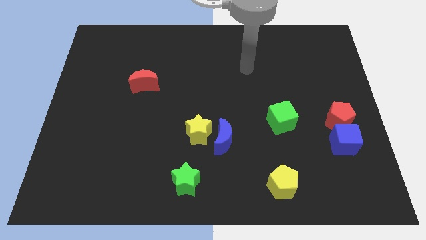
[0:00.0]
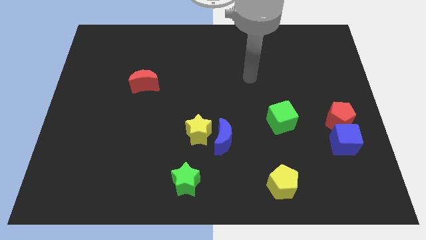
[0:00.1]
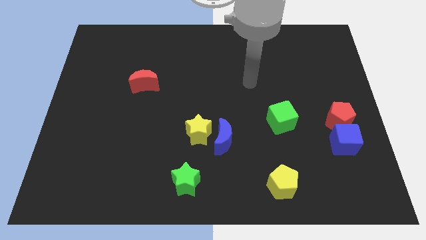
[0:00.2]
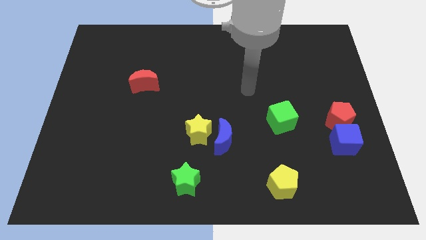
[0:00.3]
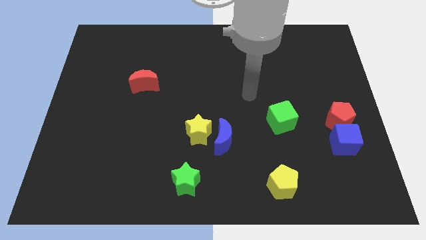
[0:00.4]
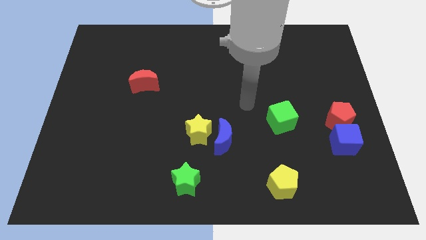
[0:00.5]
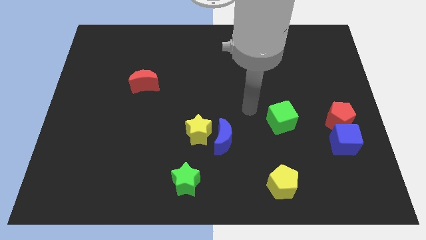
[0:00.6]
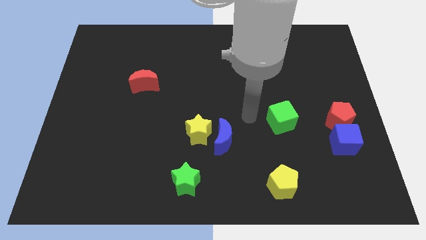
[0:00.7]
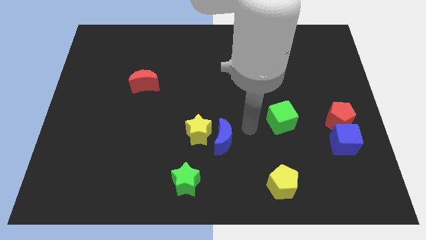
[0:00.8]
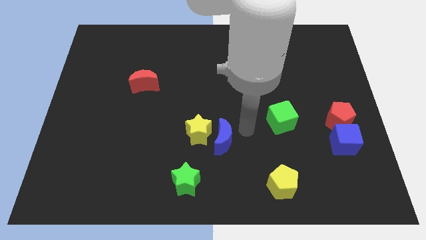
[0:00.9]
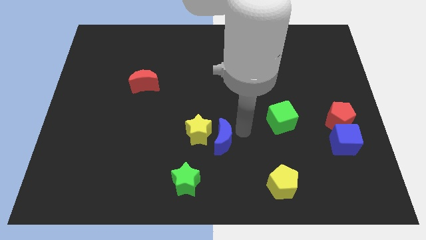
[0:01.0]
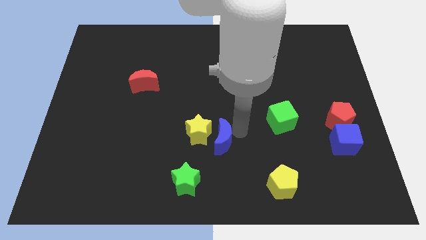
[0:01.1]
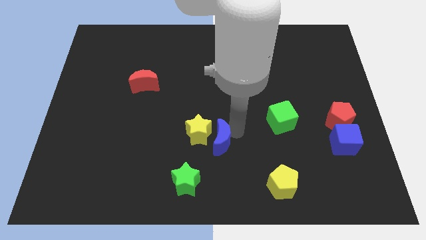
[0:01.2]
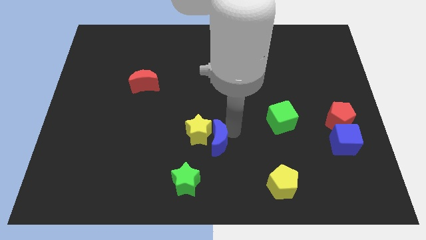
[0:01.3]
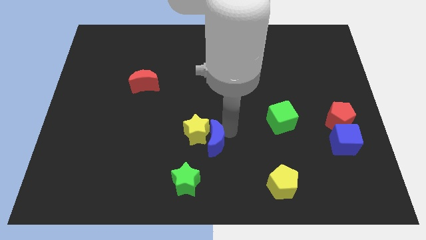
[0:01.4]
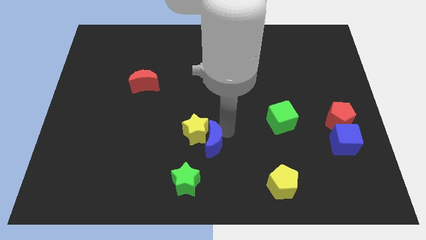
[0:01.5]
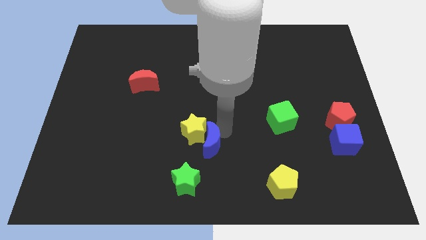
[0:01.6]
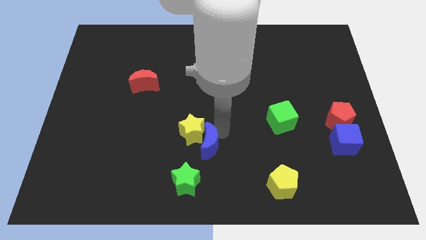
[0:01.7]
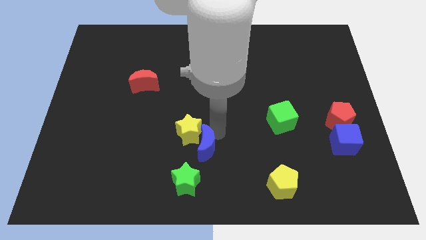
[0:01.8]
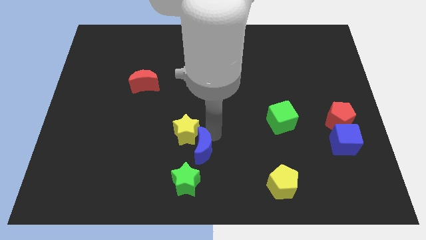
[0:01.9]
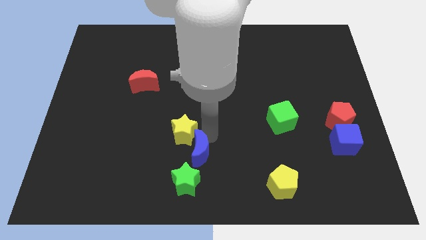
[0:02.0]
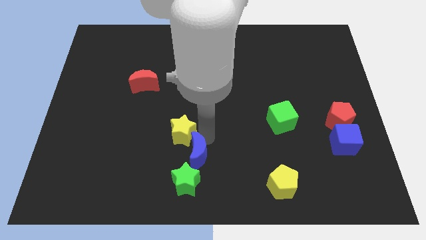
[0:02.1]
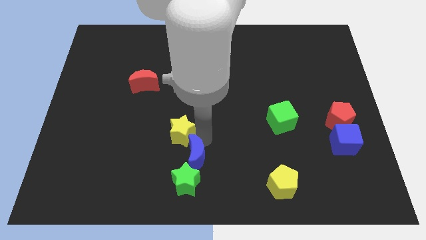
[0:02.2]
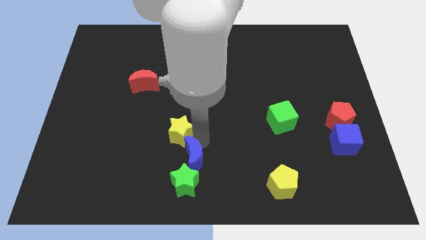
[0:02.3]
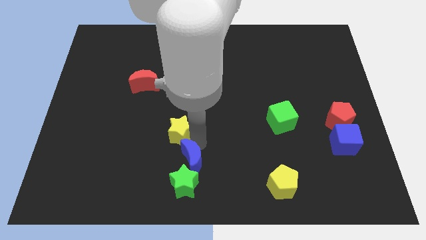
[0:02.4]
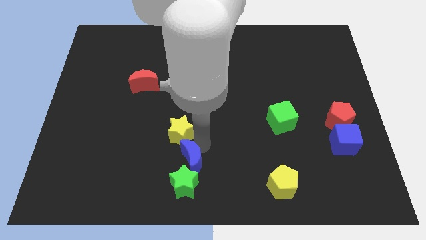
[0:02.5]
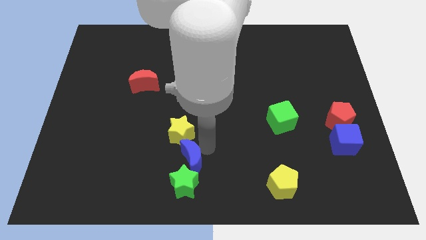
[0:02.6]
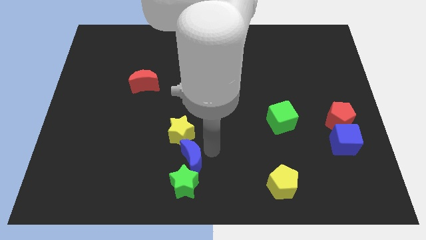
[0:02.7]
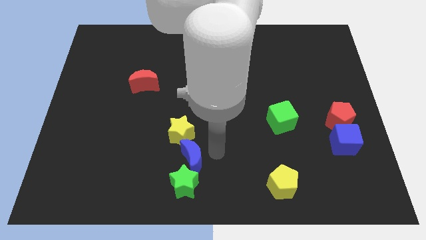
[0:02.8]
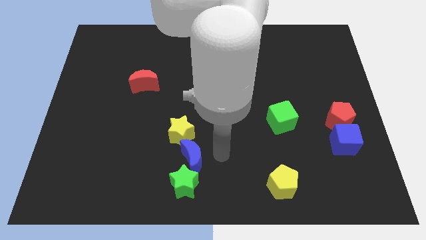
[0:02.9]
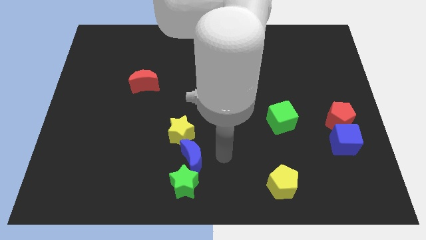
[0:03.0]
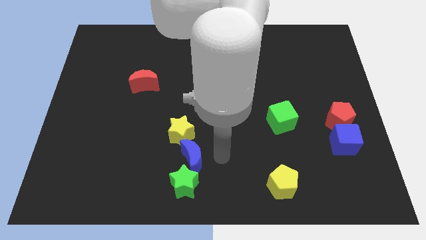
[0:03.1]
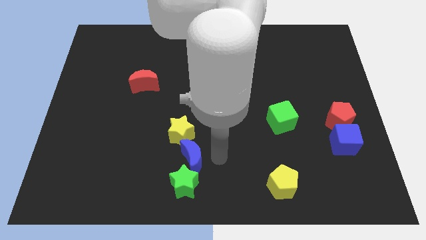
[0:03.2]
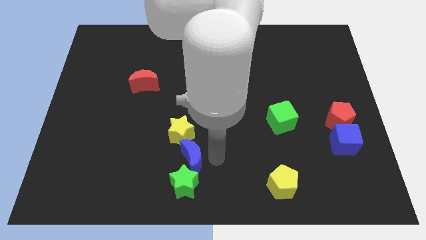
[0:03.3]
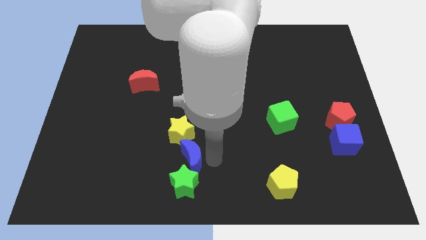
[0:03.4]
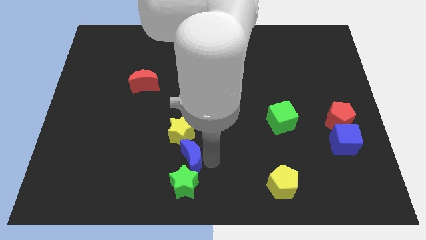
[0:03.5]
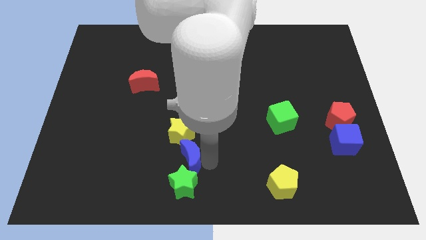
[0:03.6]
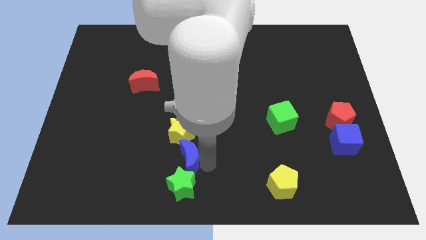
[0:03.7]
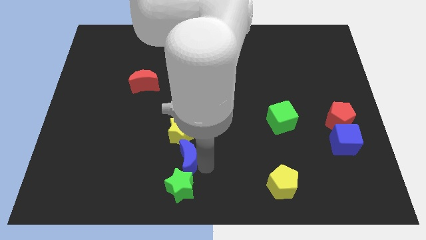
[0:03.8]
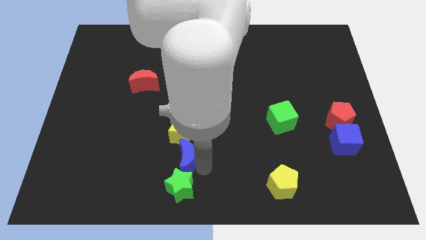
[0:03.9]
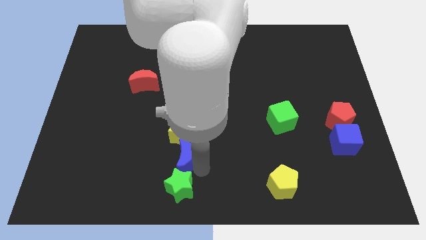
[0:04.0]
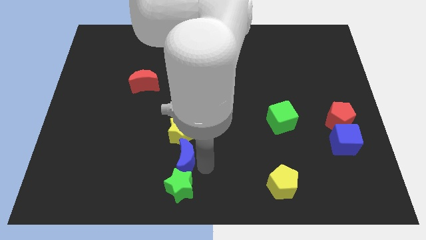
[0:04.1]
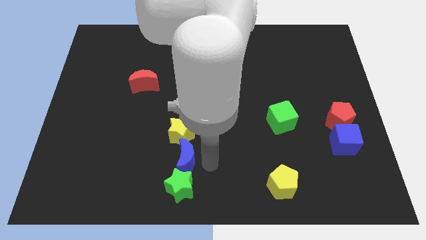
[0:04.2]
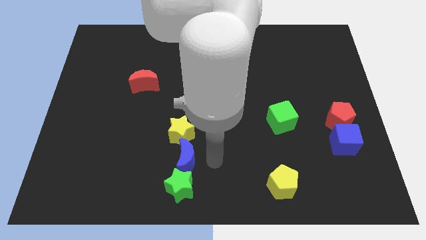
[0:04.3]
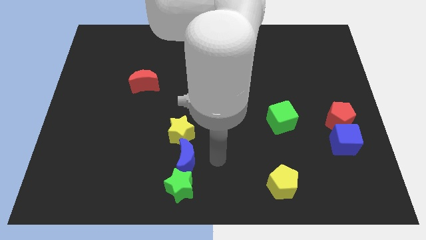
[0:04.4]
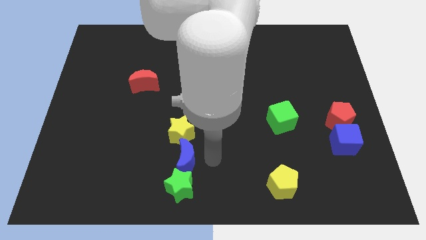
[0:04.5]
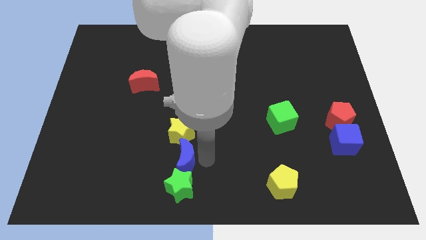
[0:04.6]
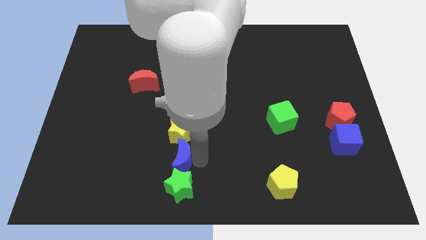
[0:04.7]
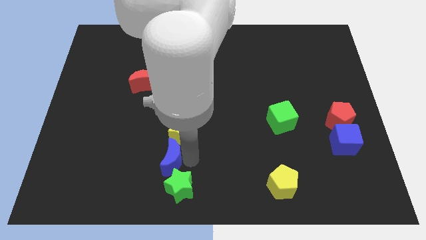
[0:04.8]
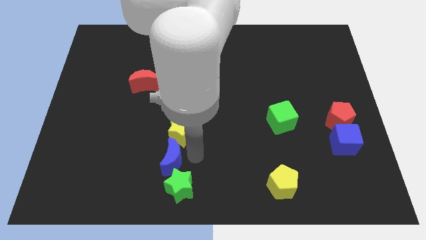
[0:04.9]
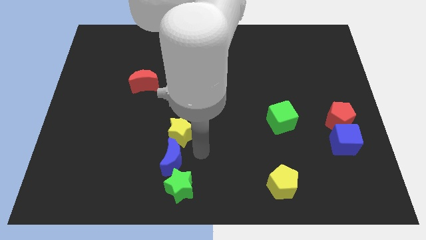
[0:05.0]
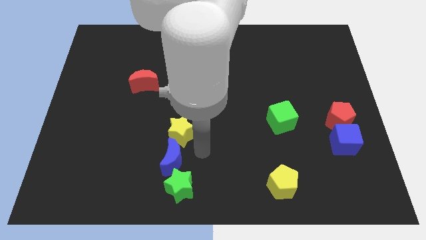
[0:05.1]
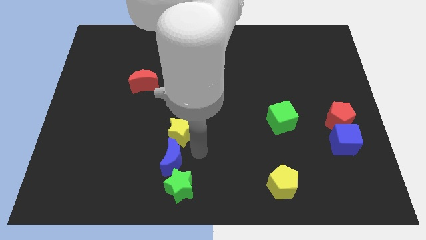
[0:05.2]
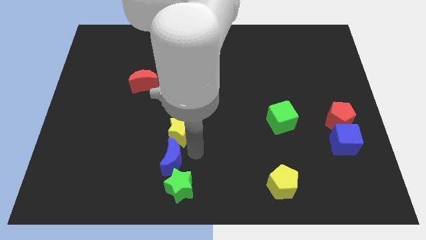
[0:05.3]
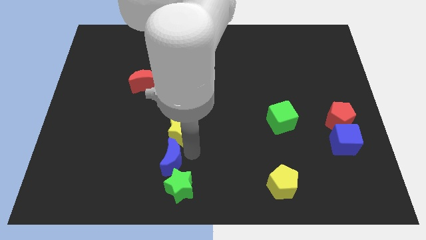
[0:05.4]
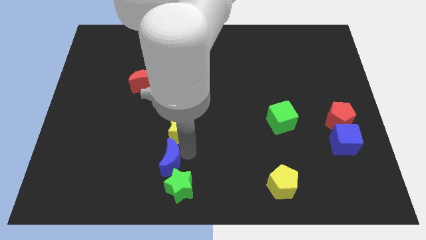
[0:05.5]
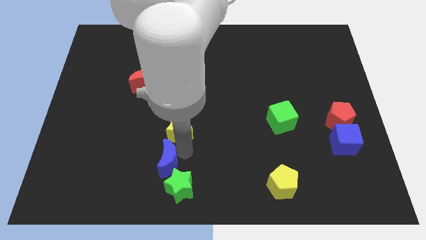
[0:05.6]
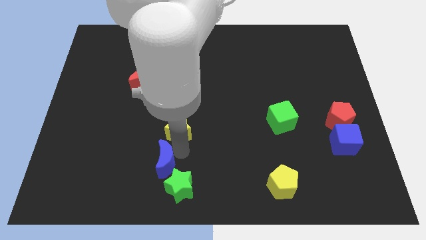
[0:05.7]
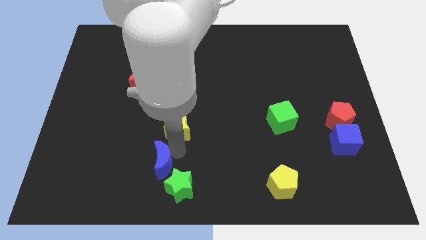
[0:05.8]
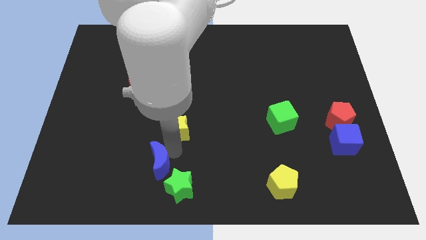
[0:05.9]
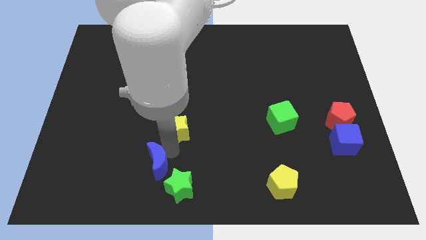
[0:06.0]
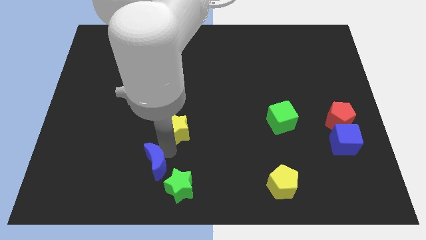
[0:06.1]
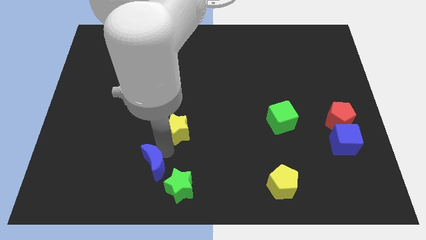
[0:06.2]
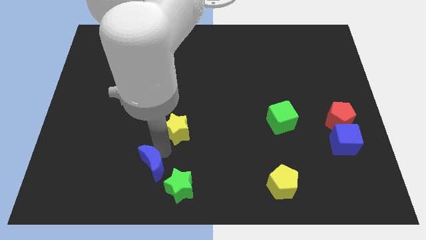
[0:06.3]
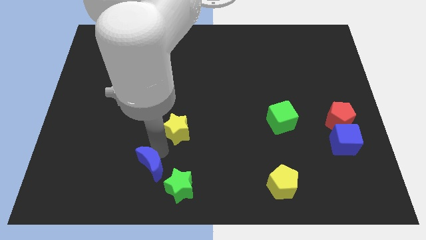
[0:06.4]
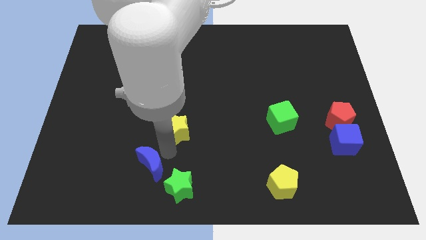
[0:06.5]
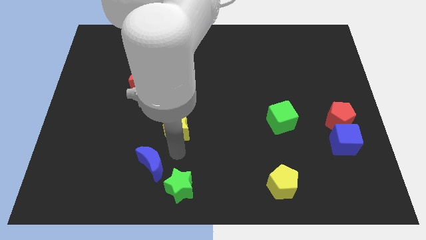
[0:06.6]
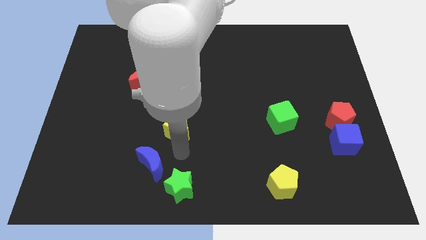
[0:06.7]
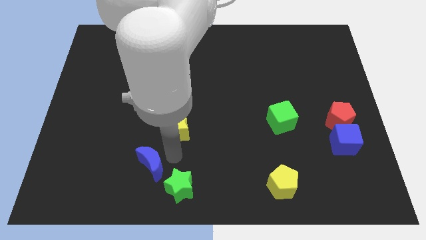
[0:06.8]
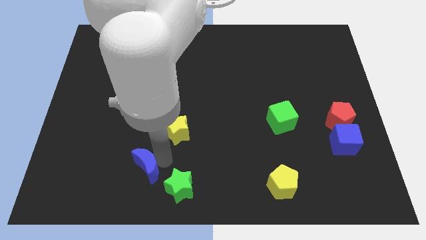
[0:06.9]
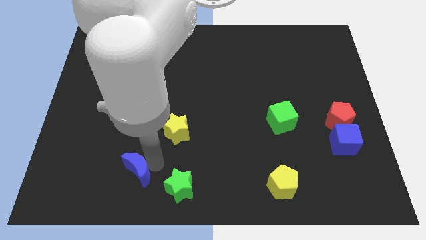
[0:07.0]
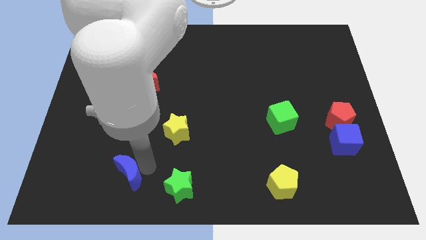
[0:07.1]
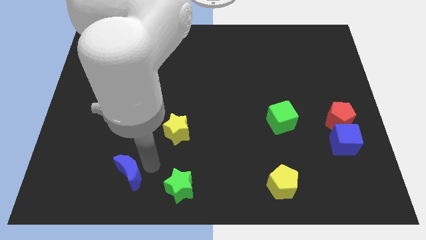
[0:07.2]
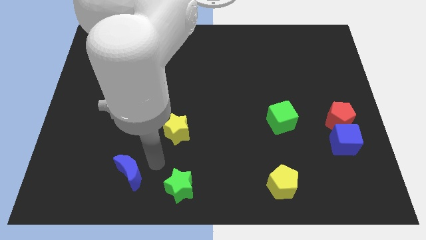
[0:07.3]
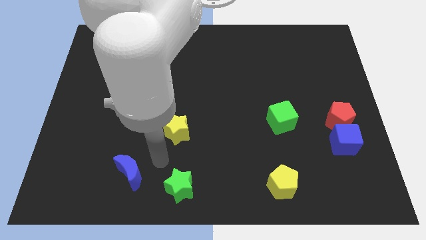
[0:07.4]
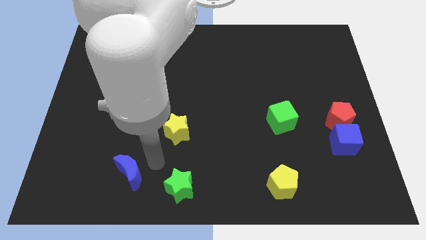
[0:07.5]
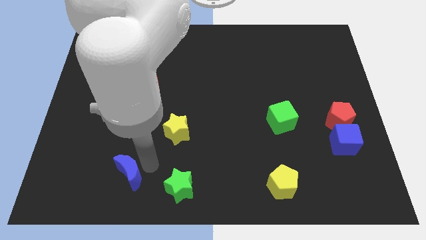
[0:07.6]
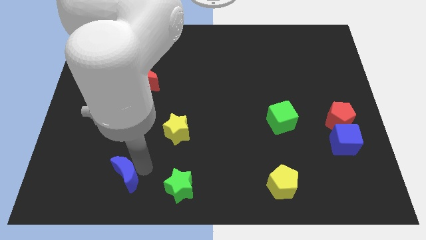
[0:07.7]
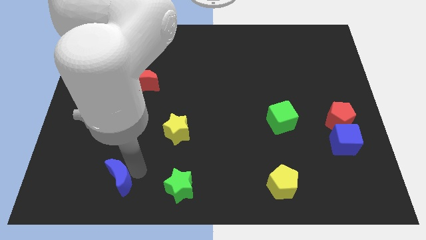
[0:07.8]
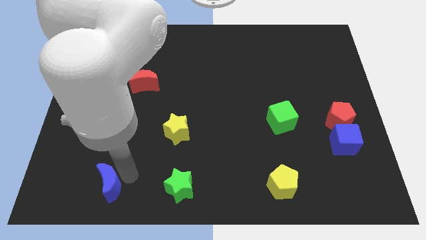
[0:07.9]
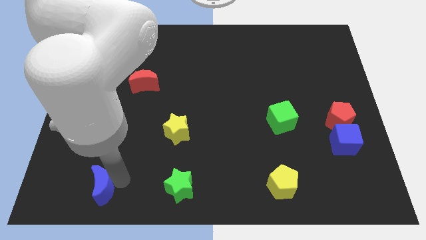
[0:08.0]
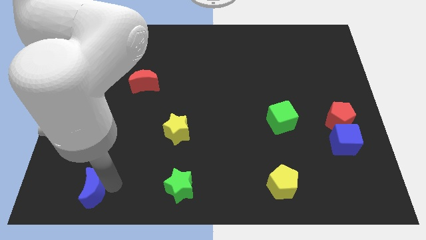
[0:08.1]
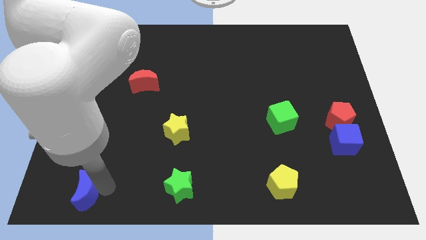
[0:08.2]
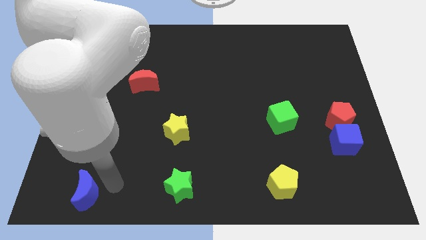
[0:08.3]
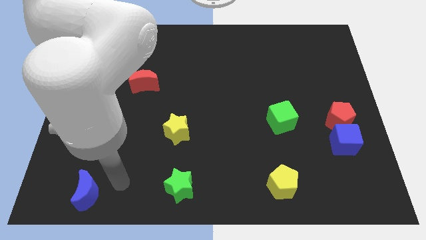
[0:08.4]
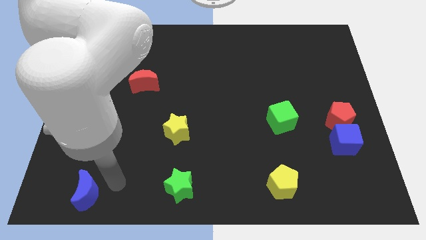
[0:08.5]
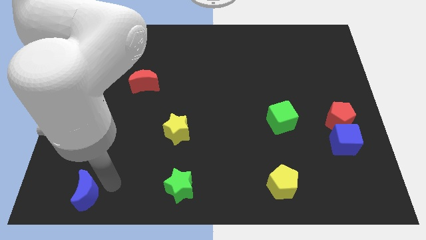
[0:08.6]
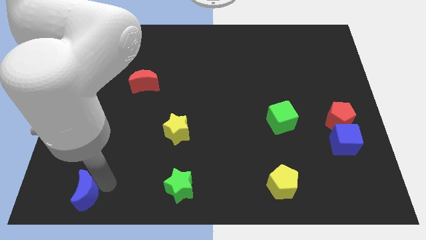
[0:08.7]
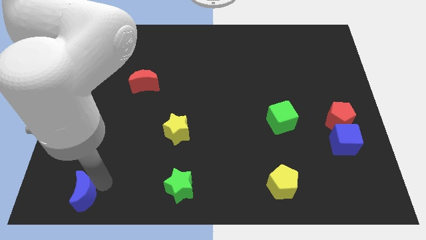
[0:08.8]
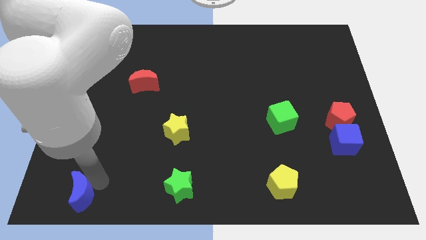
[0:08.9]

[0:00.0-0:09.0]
push the blue moon to the bottom left corner
